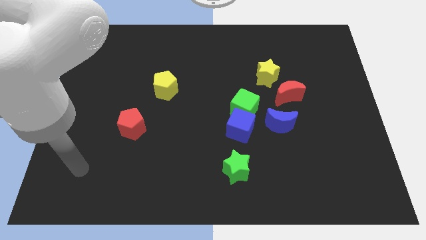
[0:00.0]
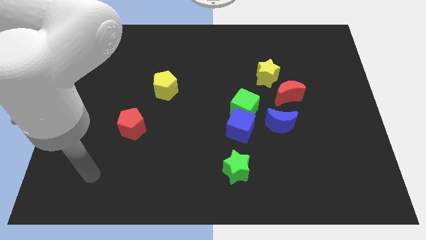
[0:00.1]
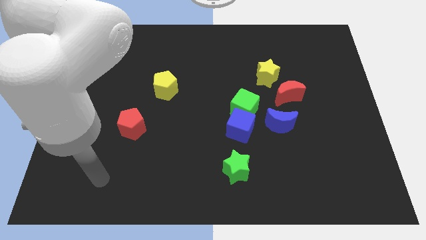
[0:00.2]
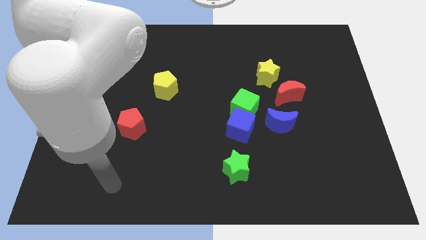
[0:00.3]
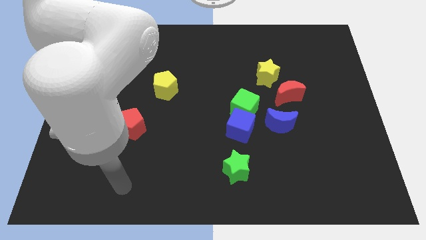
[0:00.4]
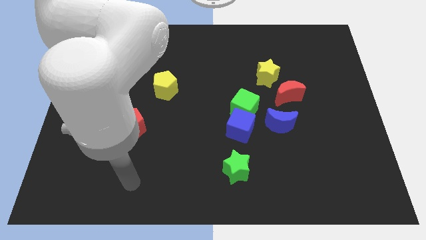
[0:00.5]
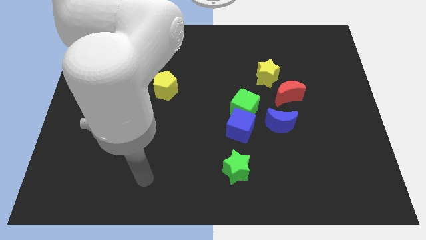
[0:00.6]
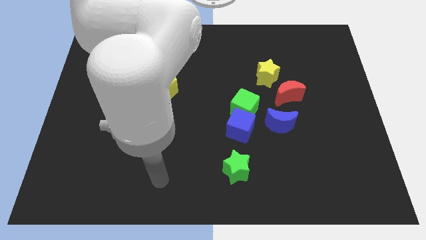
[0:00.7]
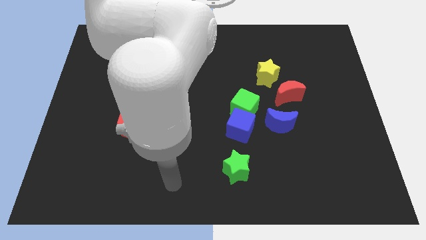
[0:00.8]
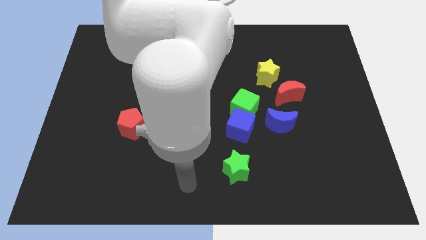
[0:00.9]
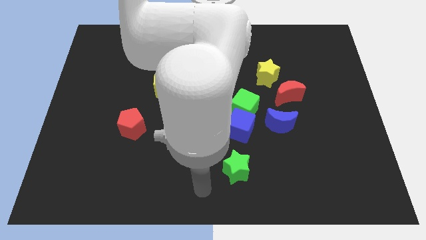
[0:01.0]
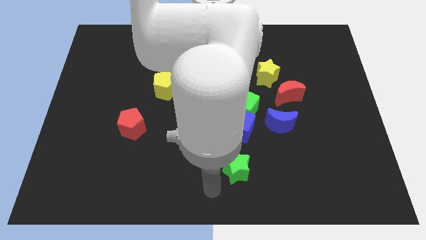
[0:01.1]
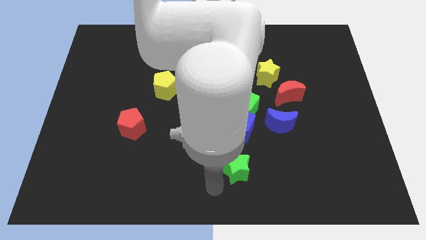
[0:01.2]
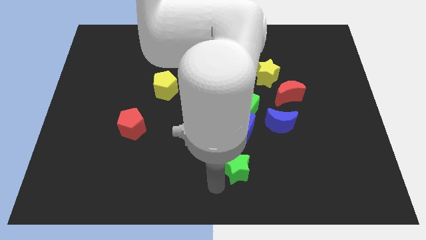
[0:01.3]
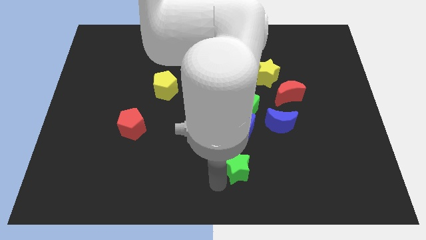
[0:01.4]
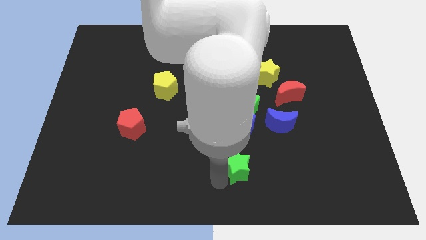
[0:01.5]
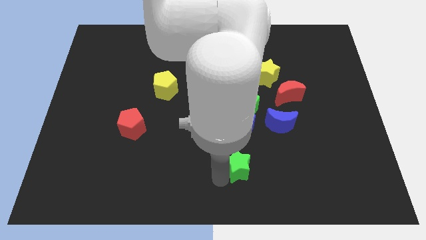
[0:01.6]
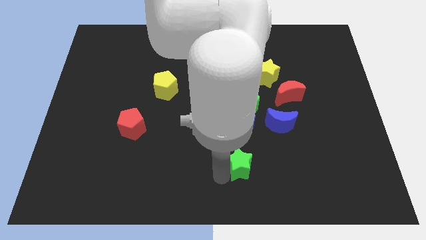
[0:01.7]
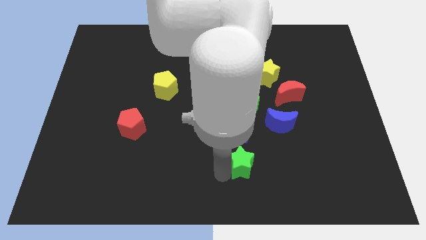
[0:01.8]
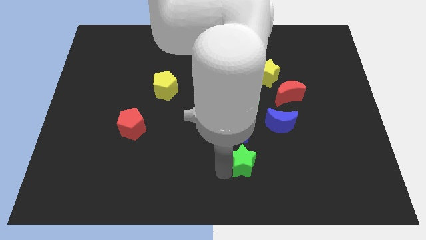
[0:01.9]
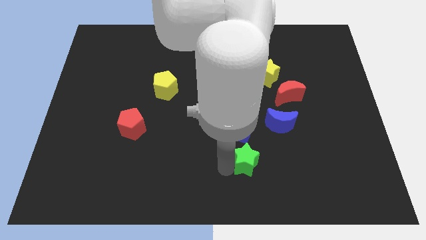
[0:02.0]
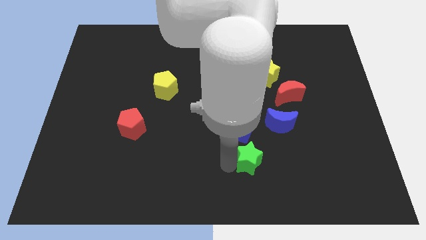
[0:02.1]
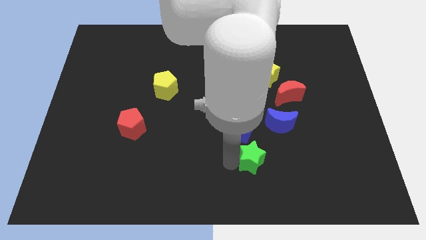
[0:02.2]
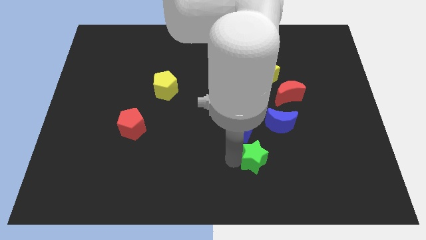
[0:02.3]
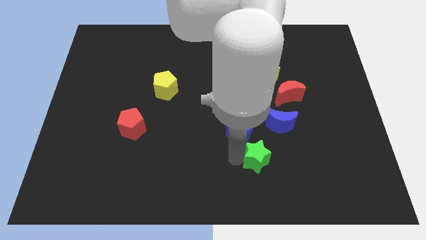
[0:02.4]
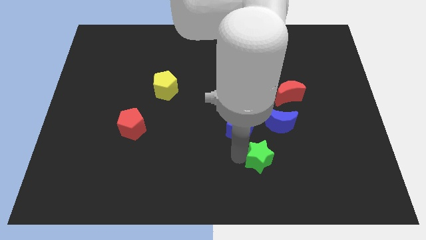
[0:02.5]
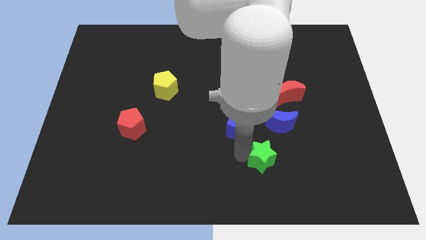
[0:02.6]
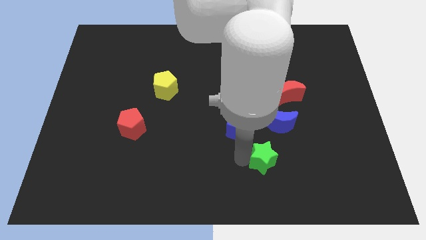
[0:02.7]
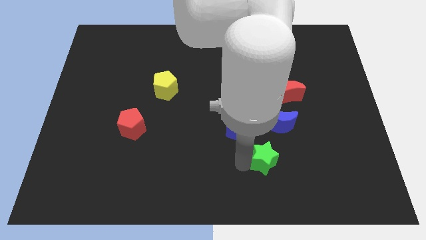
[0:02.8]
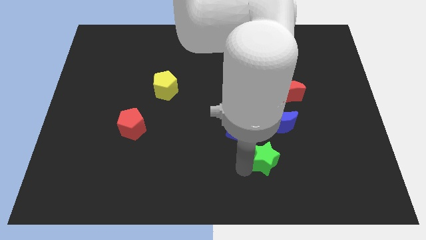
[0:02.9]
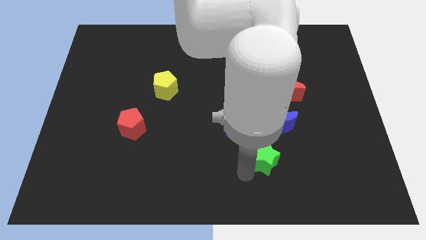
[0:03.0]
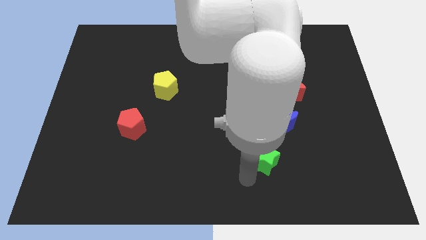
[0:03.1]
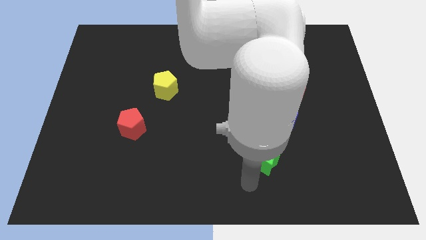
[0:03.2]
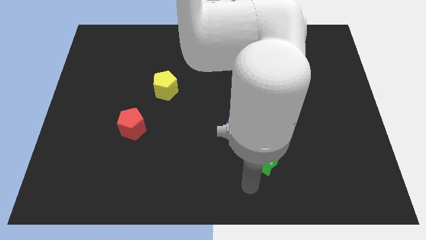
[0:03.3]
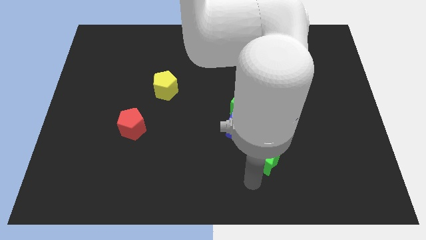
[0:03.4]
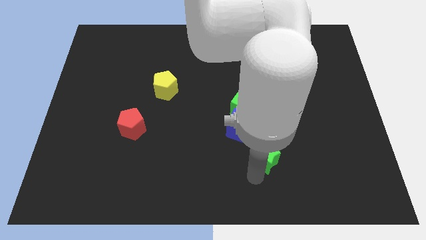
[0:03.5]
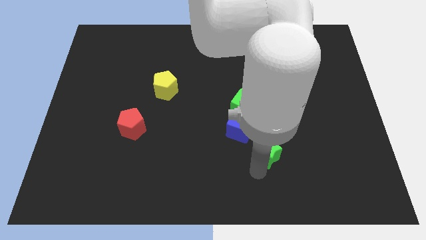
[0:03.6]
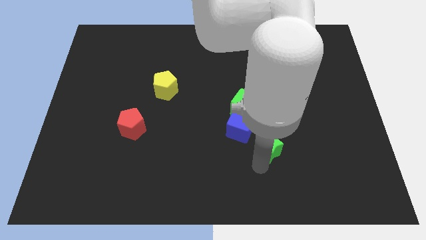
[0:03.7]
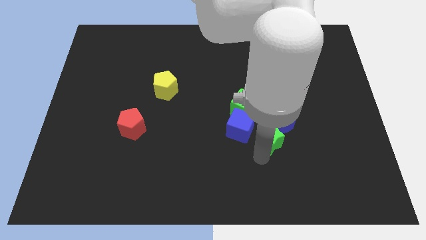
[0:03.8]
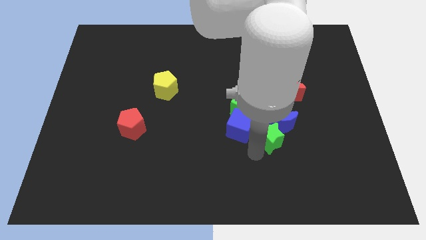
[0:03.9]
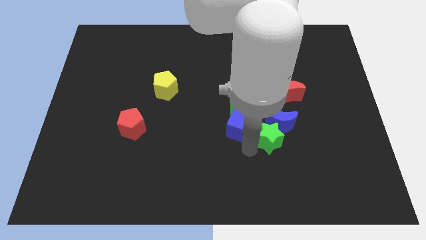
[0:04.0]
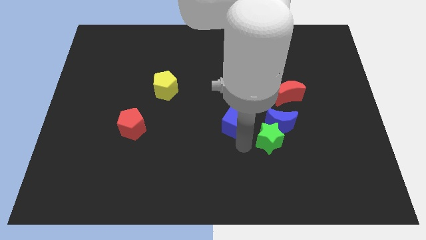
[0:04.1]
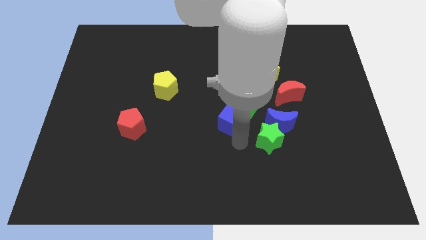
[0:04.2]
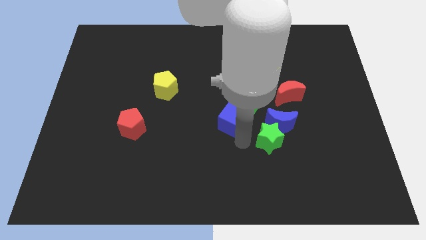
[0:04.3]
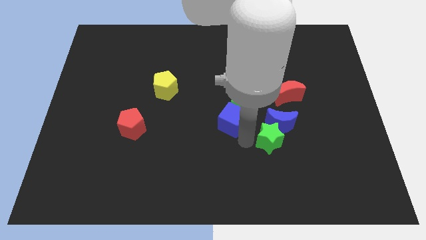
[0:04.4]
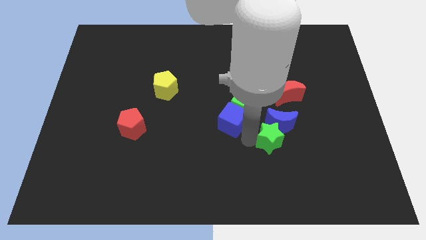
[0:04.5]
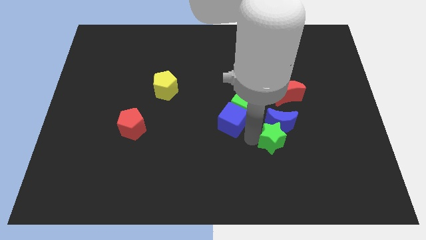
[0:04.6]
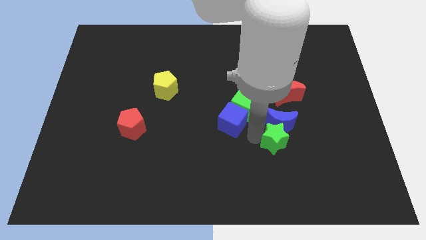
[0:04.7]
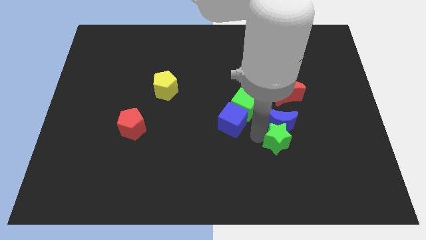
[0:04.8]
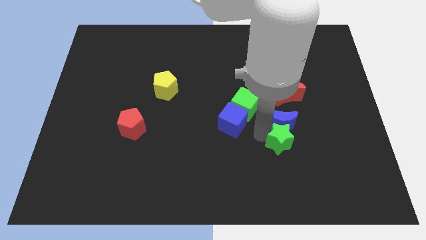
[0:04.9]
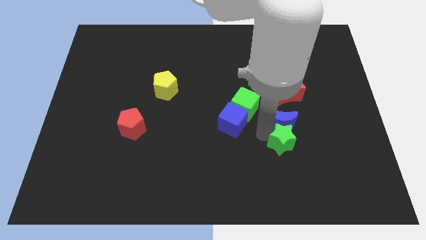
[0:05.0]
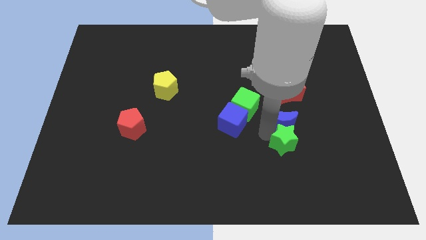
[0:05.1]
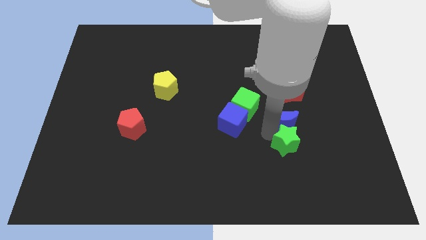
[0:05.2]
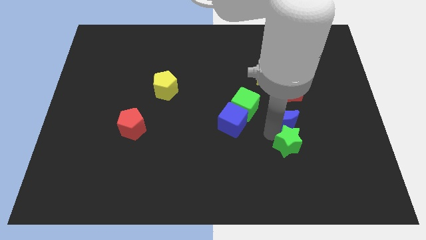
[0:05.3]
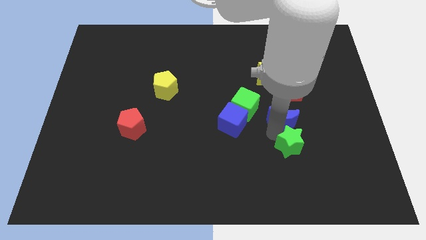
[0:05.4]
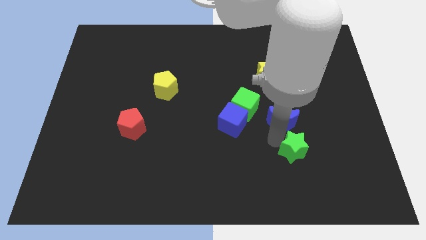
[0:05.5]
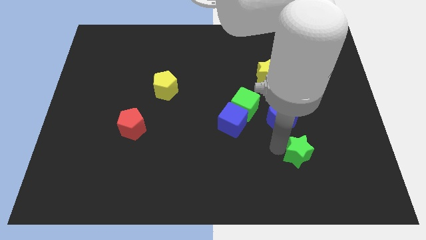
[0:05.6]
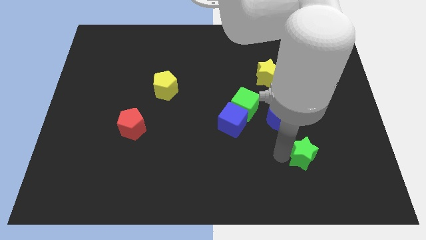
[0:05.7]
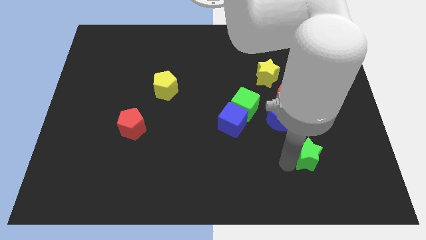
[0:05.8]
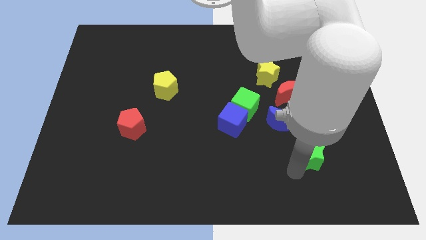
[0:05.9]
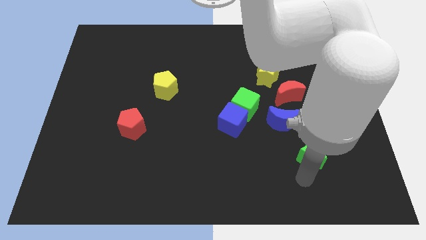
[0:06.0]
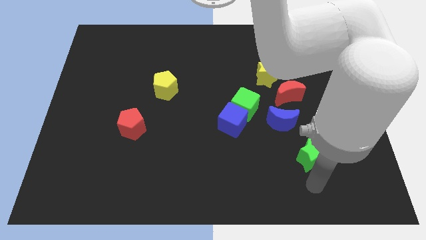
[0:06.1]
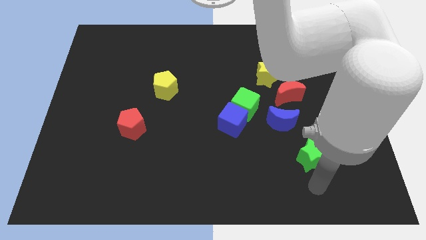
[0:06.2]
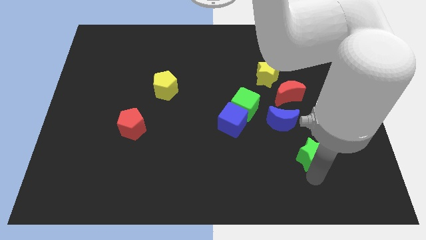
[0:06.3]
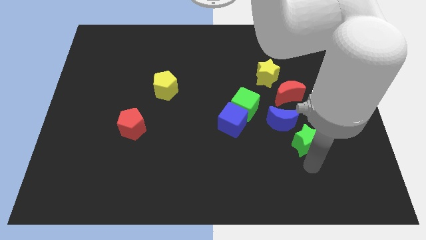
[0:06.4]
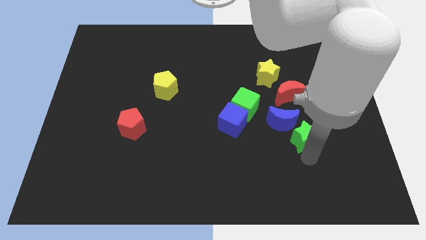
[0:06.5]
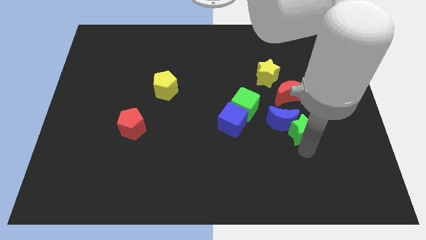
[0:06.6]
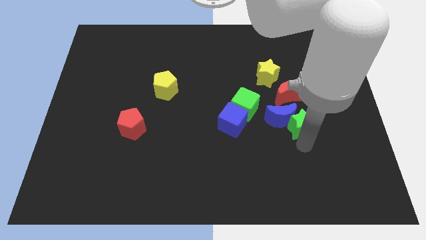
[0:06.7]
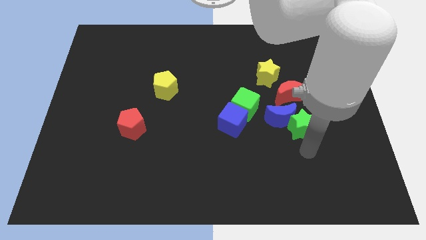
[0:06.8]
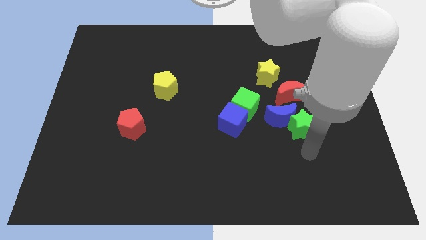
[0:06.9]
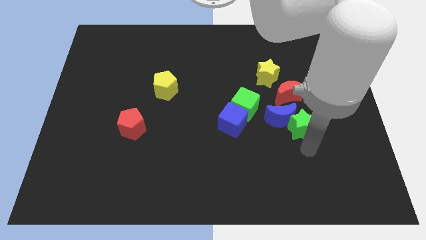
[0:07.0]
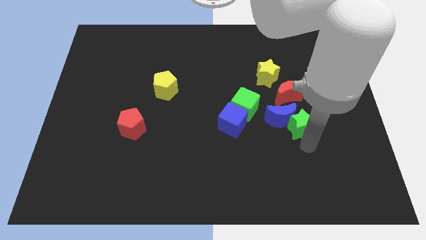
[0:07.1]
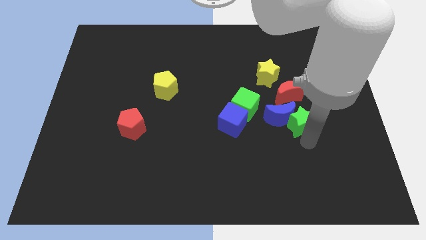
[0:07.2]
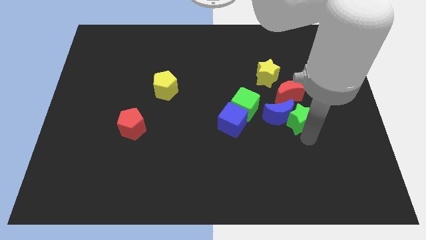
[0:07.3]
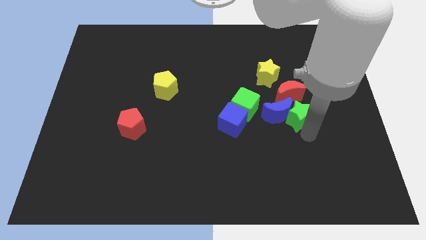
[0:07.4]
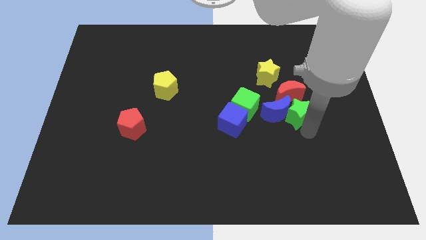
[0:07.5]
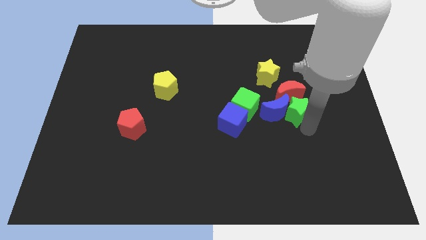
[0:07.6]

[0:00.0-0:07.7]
slide the green star to the red moon
